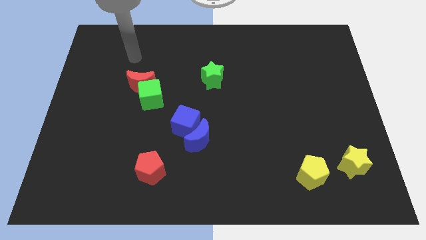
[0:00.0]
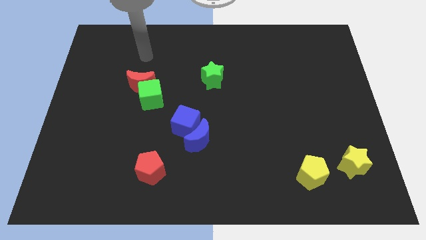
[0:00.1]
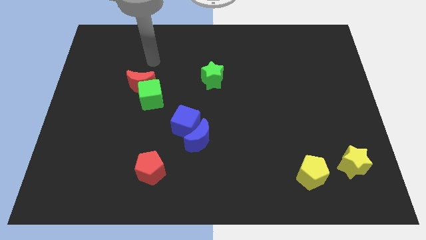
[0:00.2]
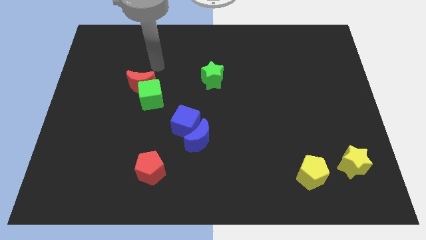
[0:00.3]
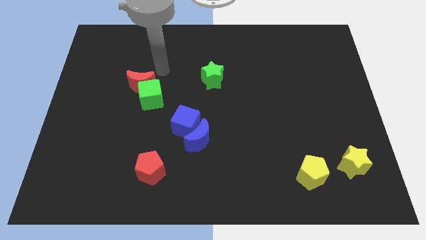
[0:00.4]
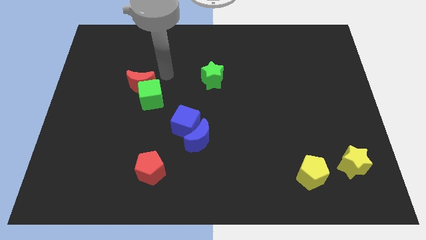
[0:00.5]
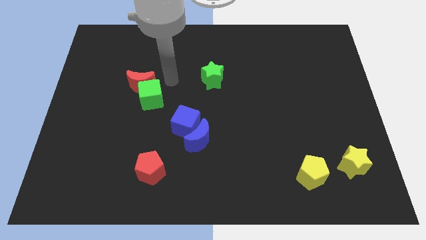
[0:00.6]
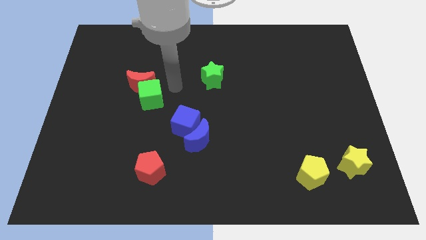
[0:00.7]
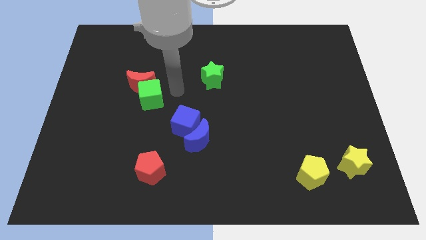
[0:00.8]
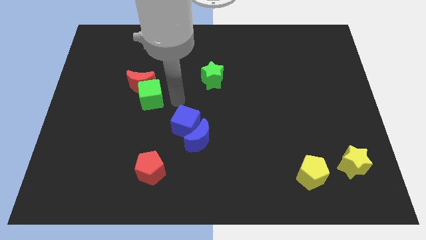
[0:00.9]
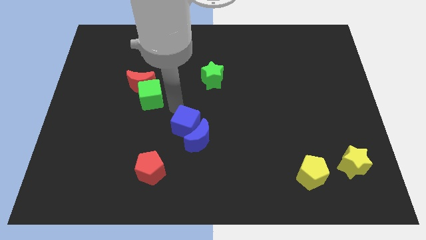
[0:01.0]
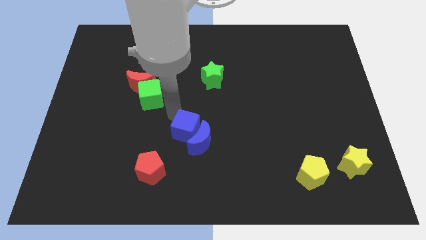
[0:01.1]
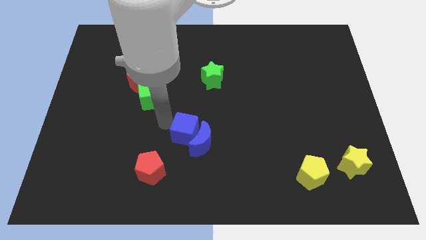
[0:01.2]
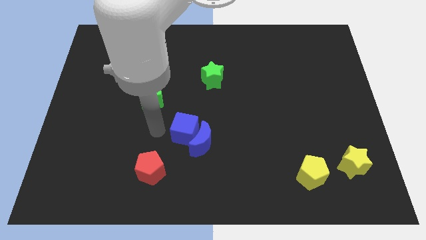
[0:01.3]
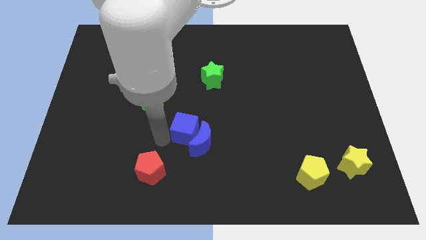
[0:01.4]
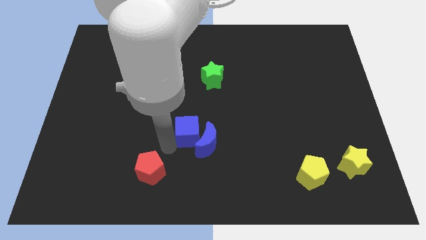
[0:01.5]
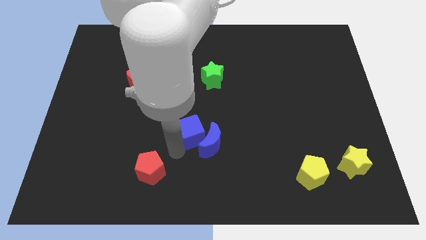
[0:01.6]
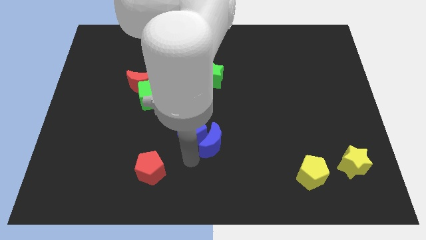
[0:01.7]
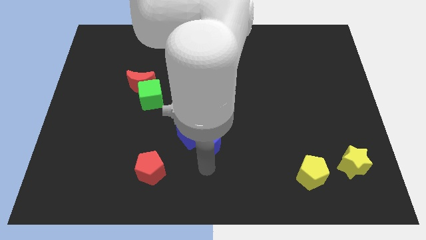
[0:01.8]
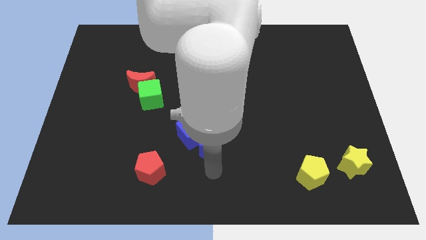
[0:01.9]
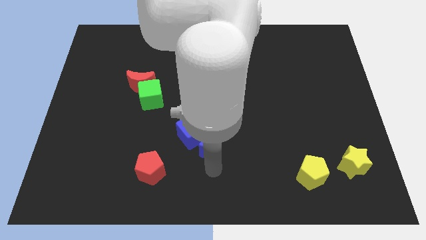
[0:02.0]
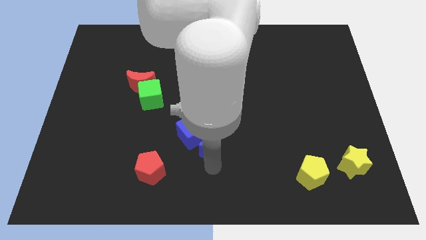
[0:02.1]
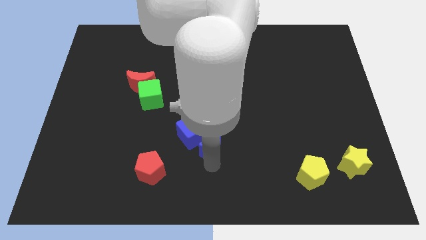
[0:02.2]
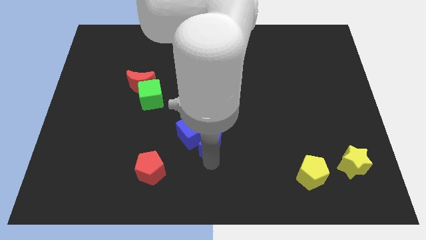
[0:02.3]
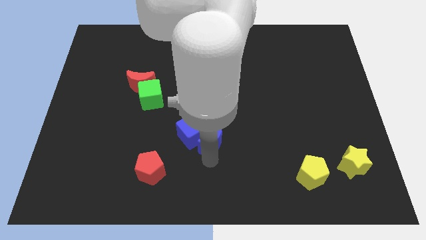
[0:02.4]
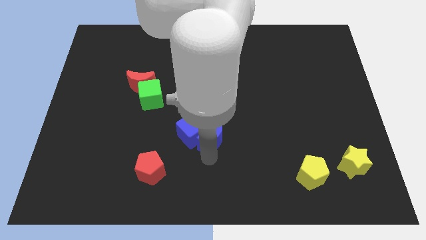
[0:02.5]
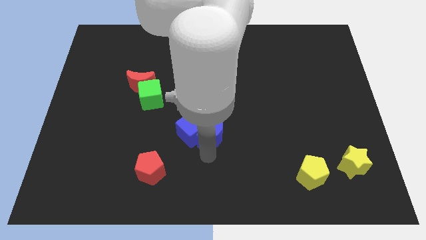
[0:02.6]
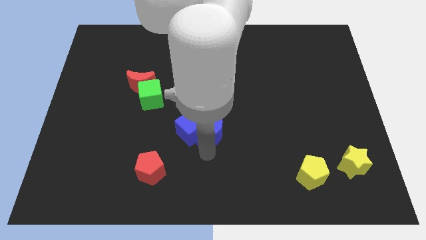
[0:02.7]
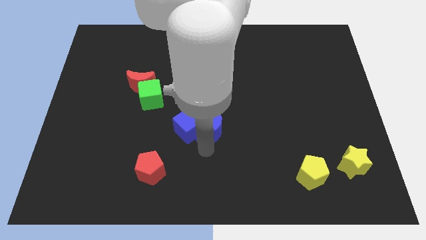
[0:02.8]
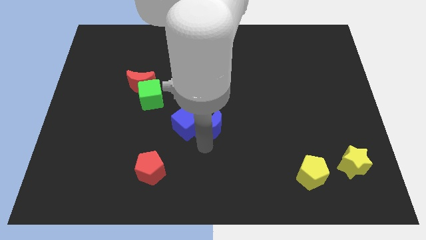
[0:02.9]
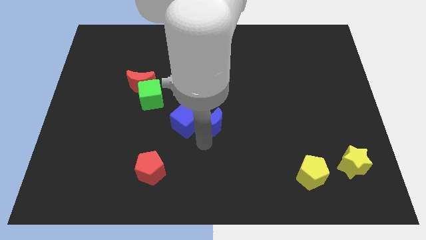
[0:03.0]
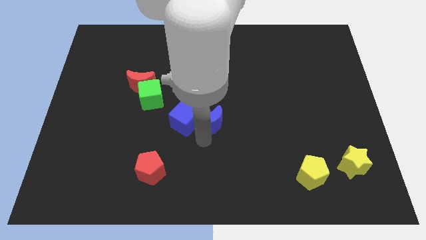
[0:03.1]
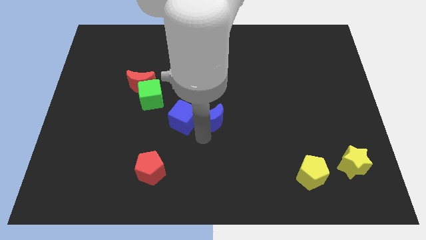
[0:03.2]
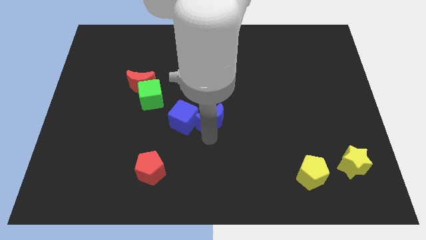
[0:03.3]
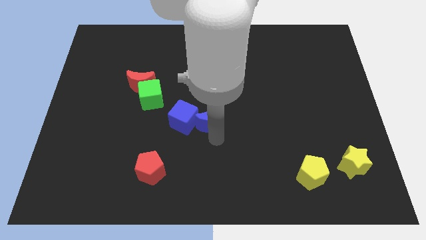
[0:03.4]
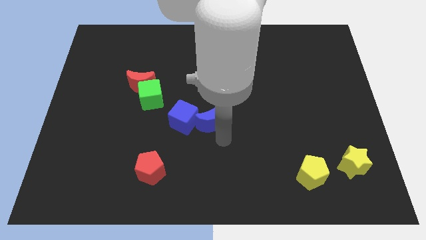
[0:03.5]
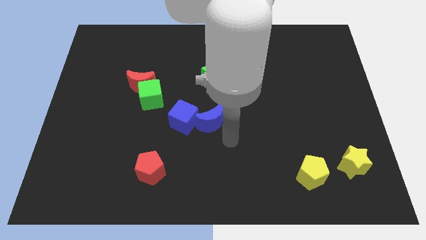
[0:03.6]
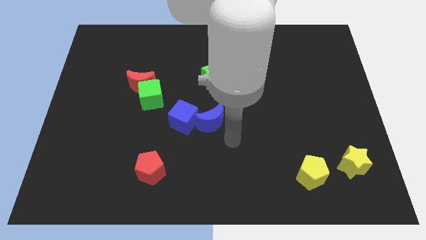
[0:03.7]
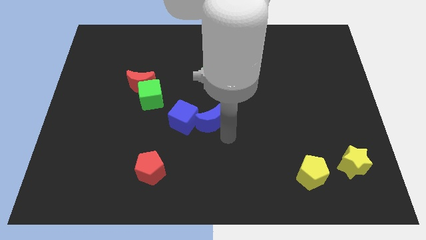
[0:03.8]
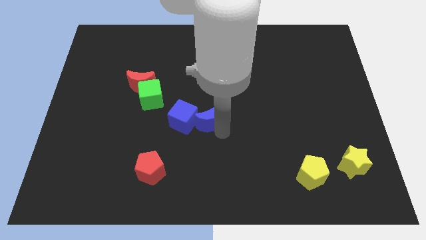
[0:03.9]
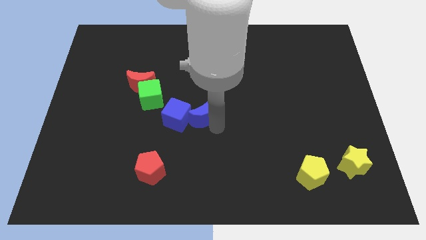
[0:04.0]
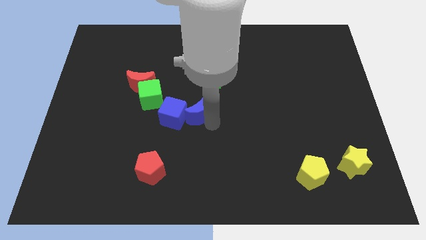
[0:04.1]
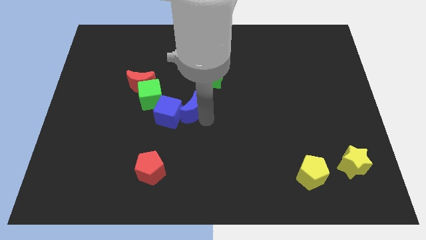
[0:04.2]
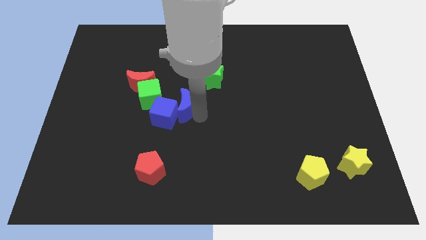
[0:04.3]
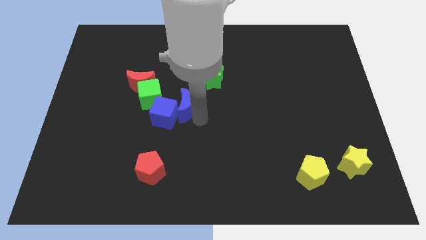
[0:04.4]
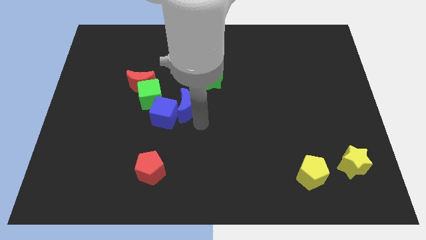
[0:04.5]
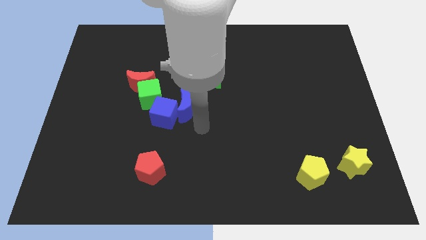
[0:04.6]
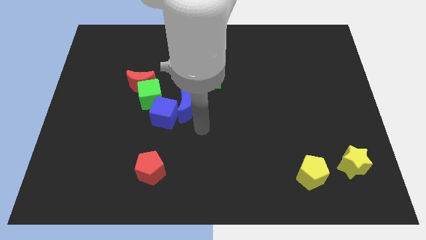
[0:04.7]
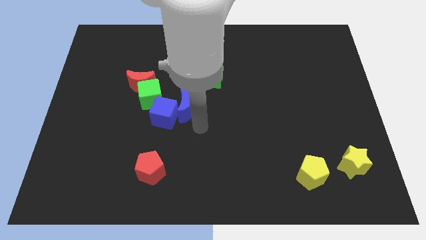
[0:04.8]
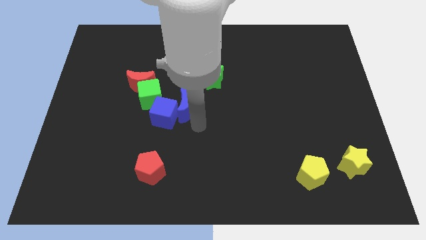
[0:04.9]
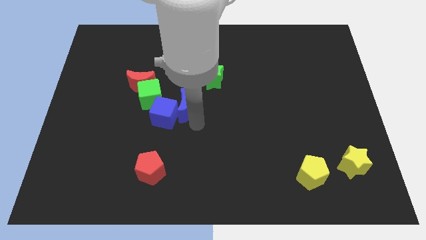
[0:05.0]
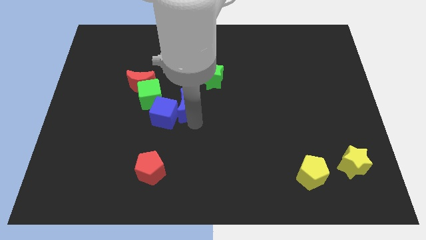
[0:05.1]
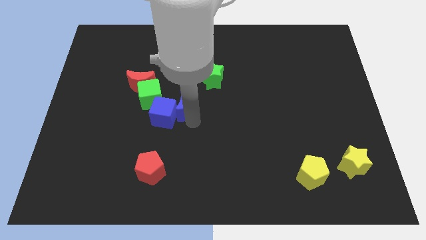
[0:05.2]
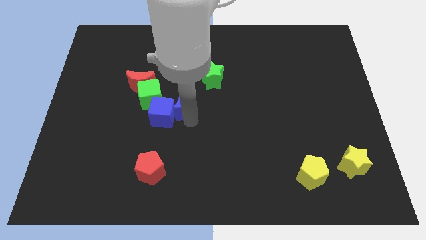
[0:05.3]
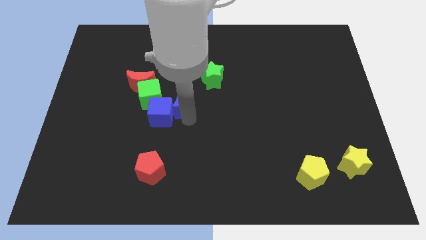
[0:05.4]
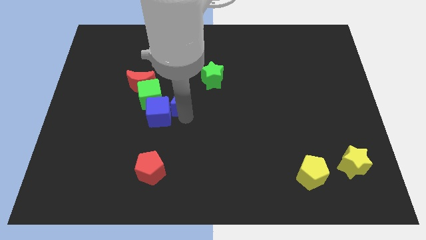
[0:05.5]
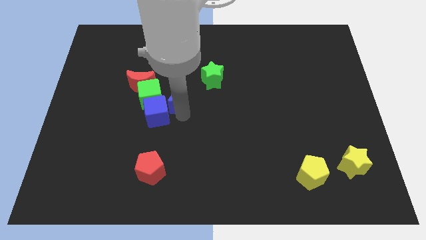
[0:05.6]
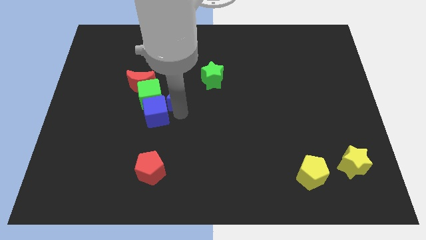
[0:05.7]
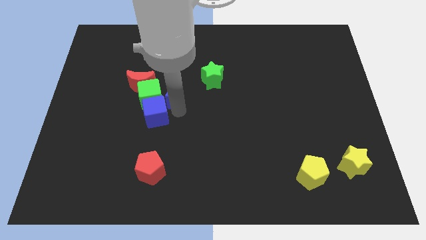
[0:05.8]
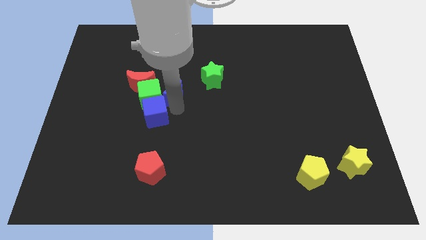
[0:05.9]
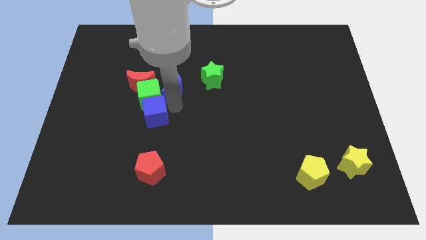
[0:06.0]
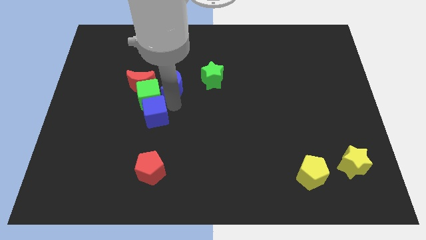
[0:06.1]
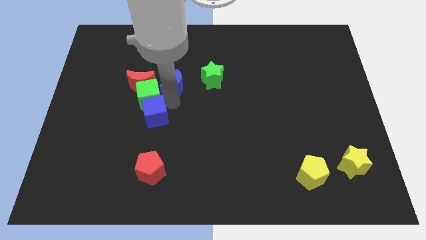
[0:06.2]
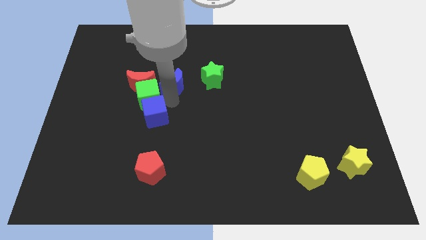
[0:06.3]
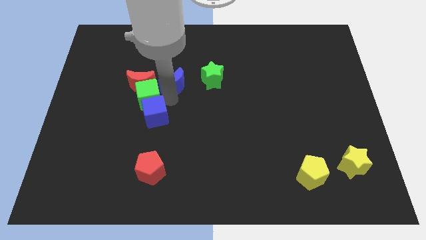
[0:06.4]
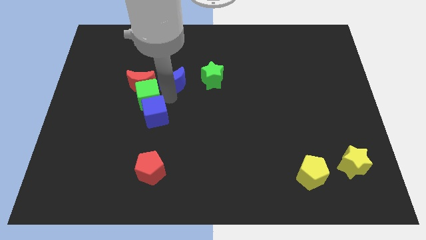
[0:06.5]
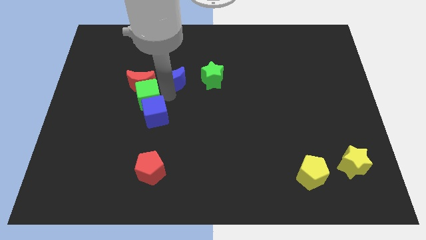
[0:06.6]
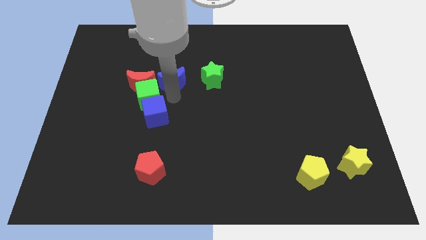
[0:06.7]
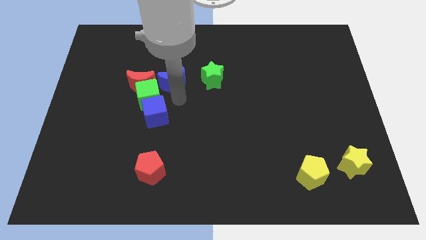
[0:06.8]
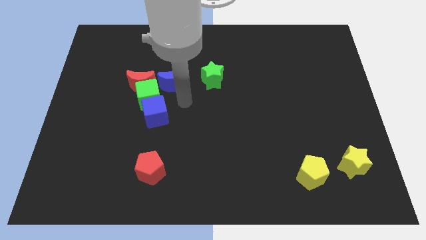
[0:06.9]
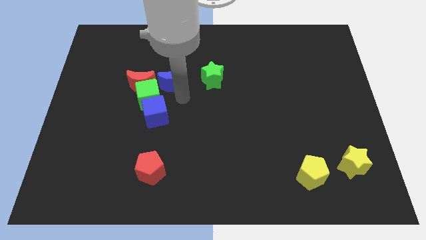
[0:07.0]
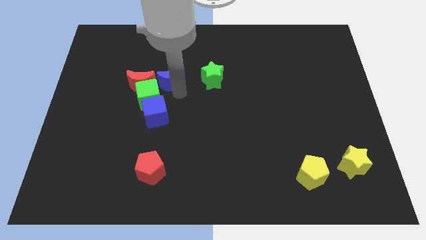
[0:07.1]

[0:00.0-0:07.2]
push the blue moon to the top right side of the red moon
